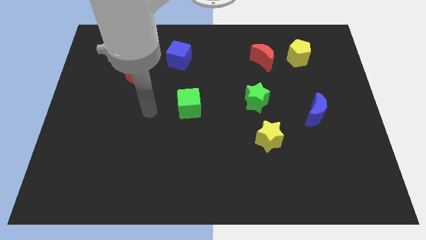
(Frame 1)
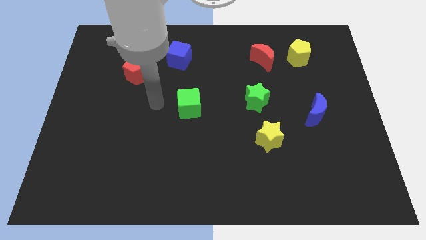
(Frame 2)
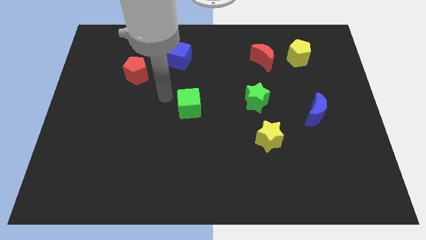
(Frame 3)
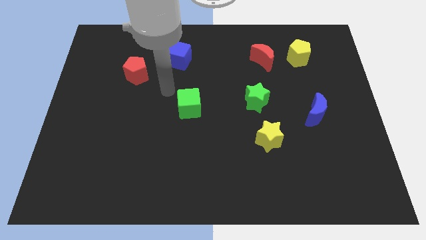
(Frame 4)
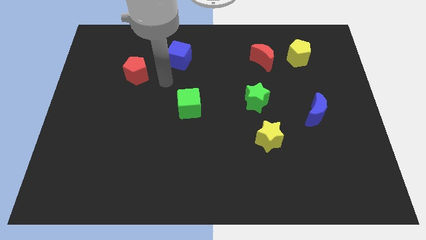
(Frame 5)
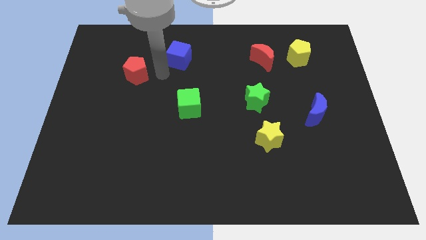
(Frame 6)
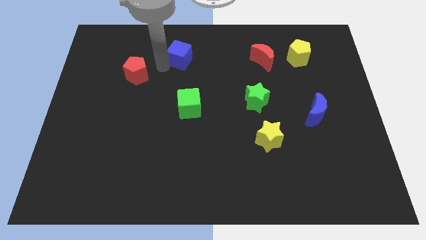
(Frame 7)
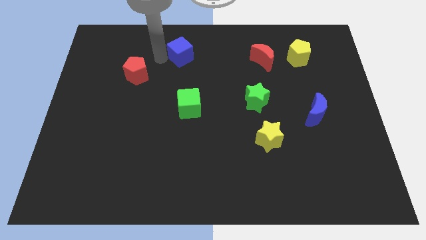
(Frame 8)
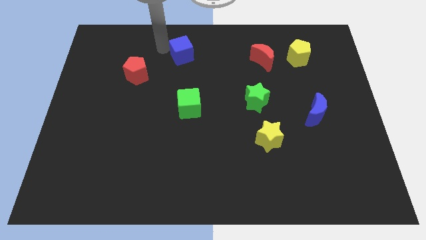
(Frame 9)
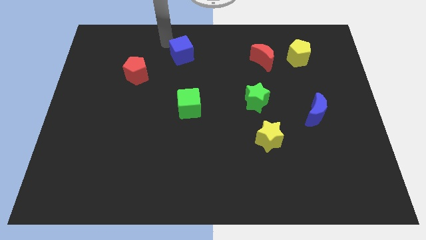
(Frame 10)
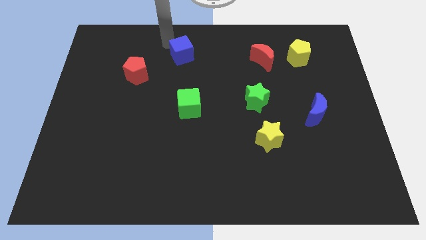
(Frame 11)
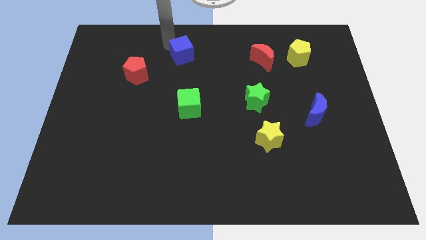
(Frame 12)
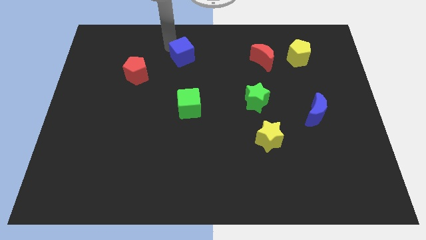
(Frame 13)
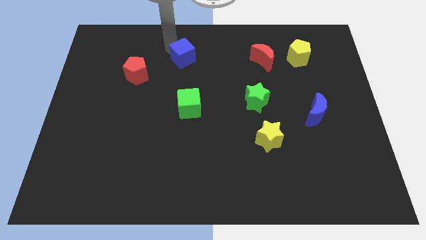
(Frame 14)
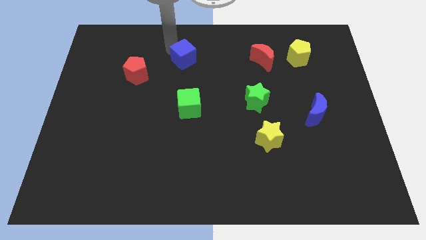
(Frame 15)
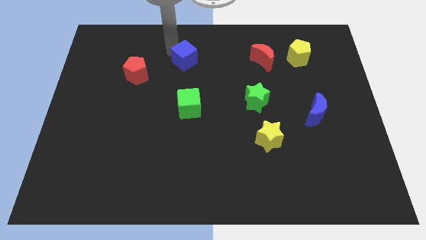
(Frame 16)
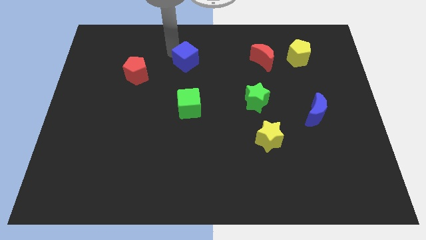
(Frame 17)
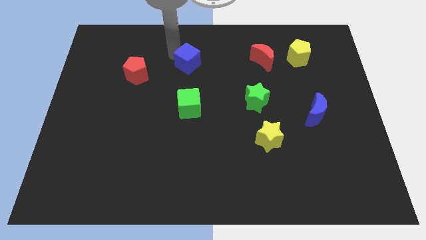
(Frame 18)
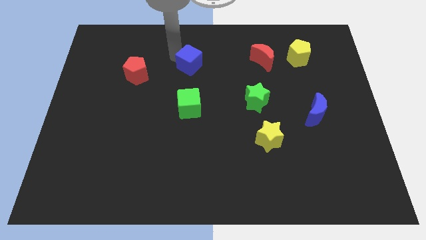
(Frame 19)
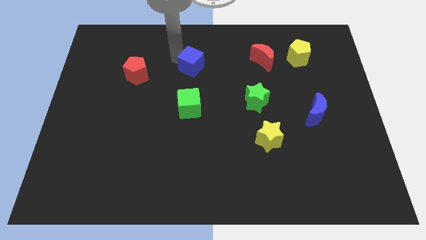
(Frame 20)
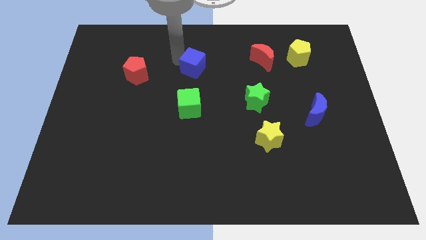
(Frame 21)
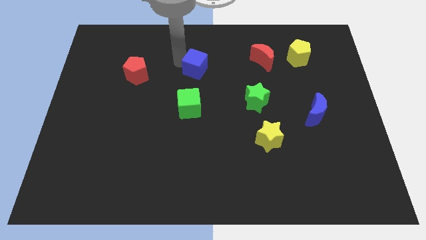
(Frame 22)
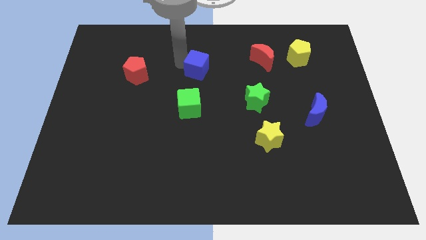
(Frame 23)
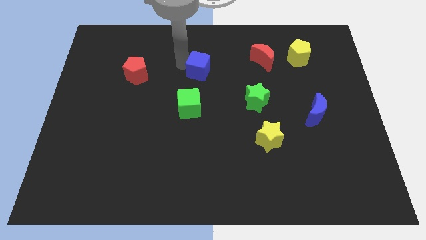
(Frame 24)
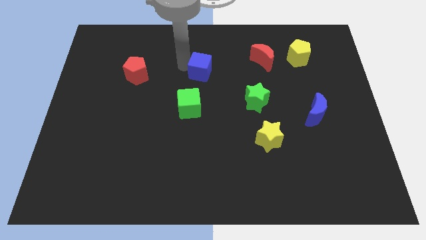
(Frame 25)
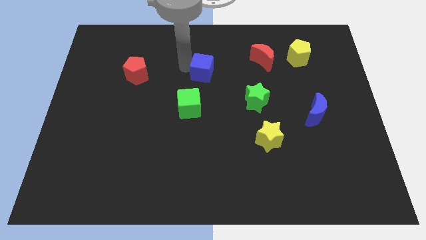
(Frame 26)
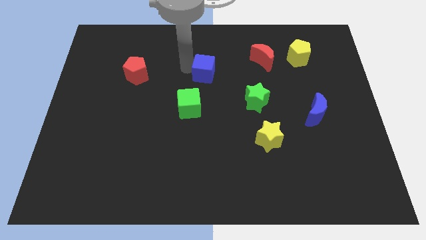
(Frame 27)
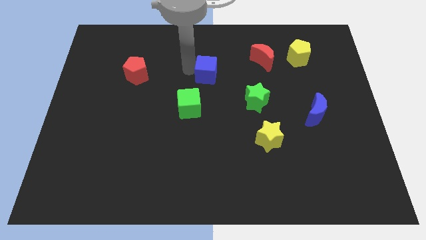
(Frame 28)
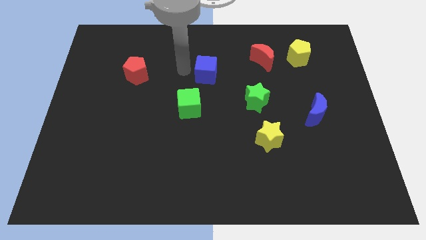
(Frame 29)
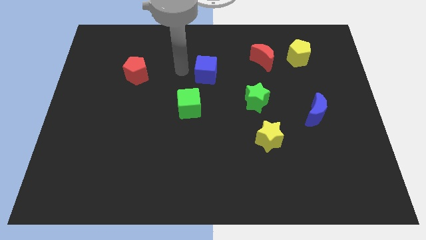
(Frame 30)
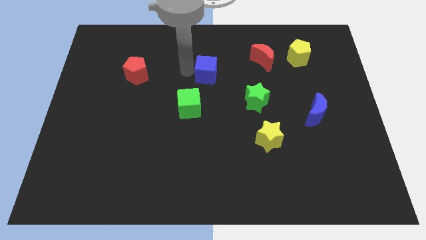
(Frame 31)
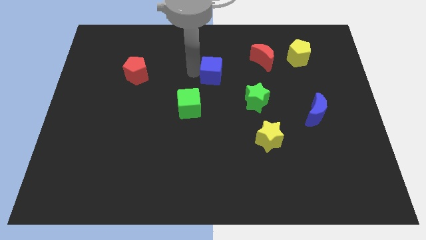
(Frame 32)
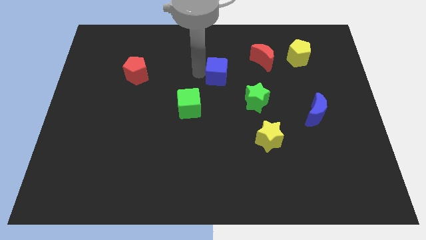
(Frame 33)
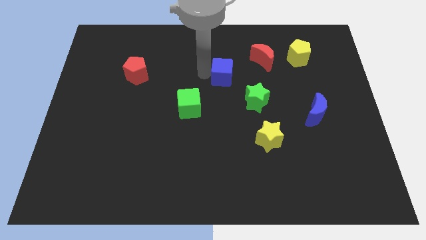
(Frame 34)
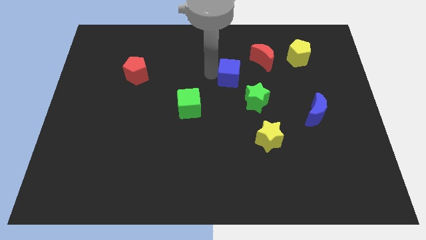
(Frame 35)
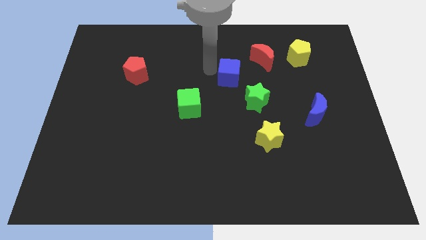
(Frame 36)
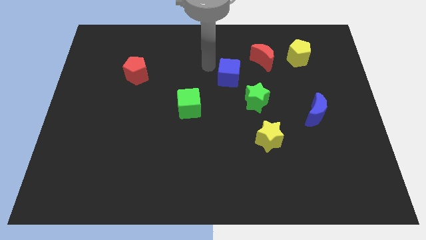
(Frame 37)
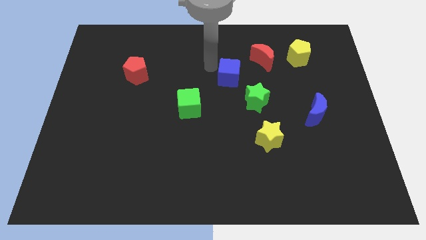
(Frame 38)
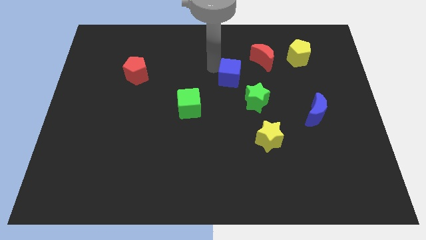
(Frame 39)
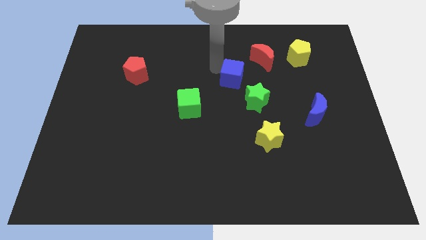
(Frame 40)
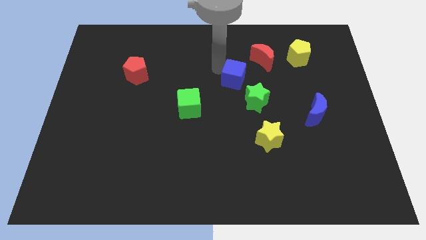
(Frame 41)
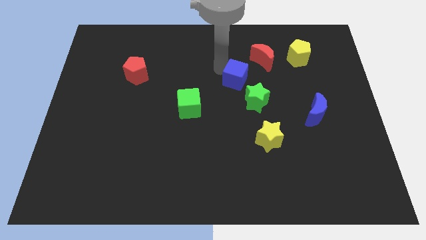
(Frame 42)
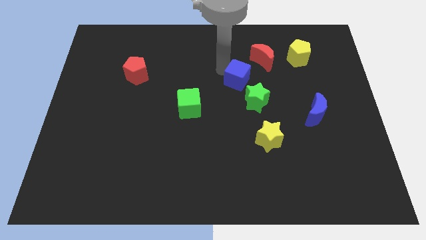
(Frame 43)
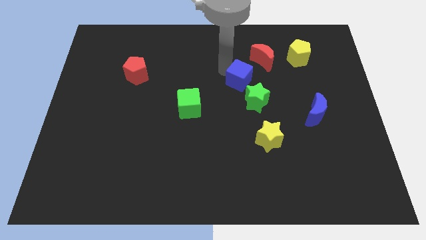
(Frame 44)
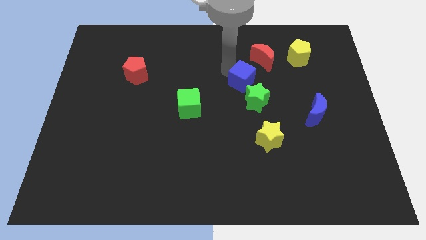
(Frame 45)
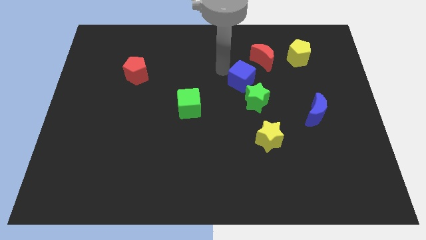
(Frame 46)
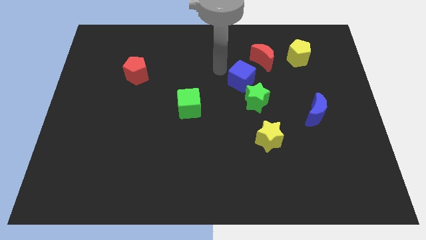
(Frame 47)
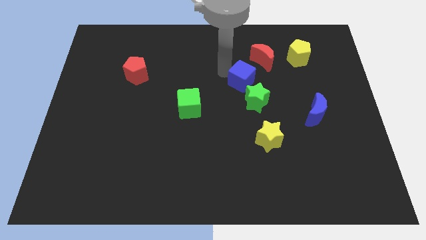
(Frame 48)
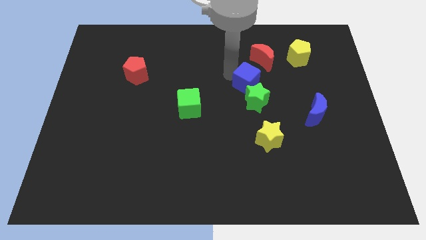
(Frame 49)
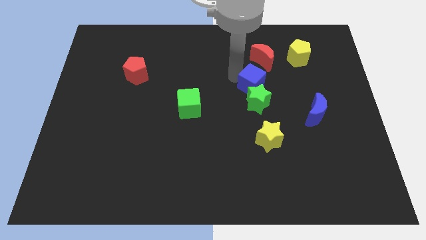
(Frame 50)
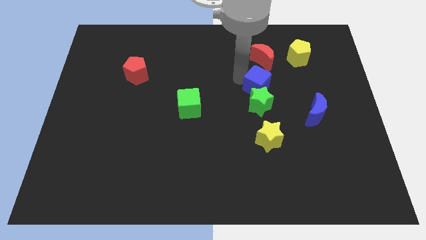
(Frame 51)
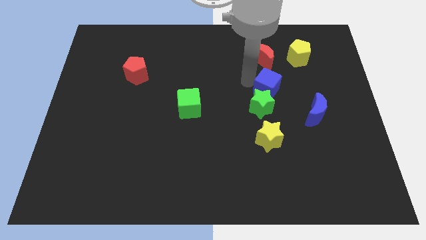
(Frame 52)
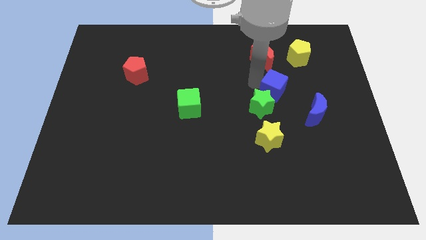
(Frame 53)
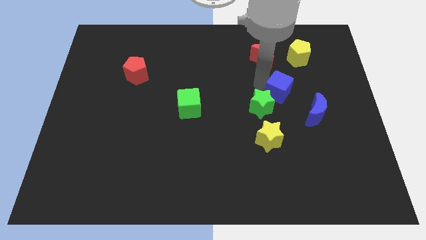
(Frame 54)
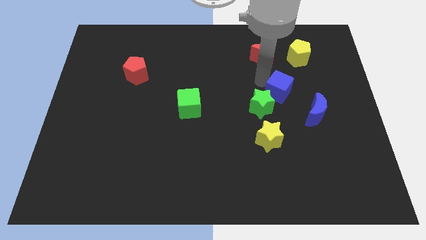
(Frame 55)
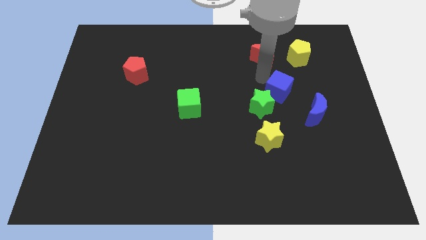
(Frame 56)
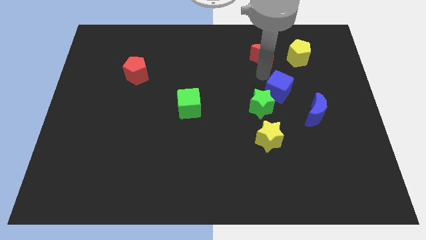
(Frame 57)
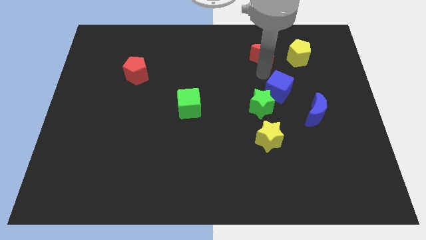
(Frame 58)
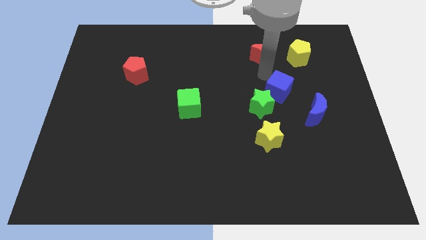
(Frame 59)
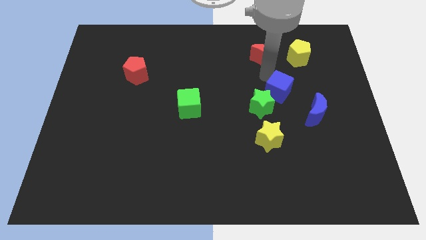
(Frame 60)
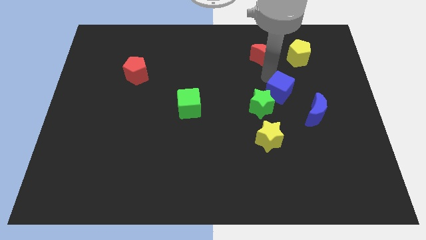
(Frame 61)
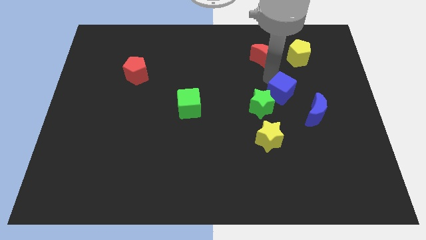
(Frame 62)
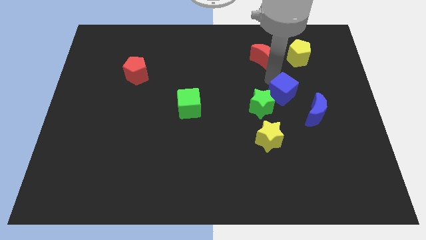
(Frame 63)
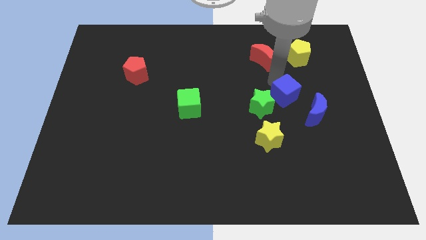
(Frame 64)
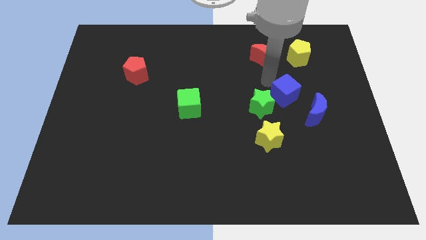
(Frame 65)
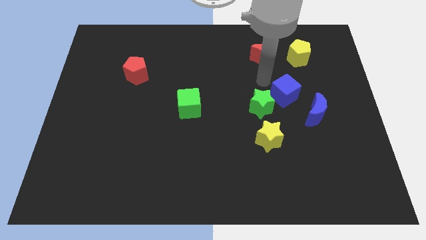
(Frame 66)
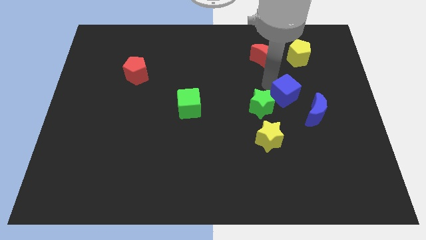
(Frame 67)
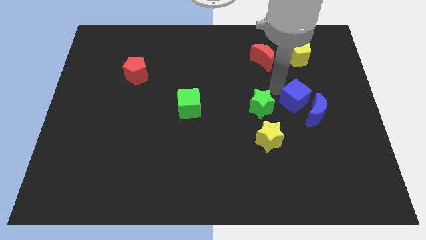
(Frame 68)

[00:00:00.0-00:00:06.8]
push the blue cube close to the blue moon
